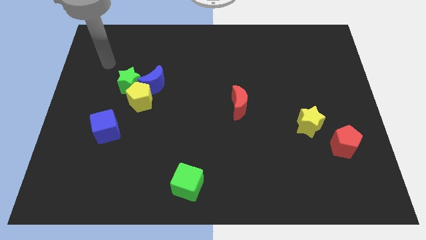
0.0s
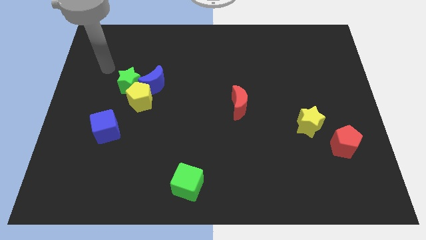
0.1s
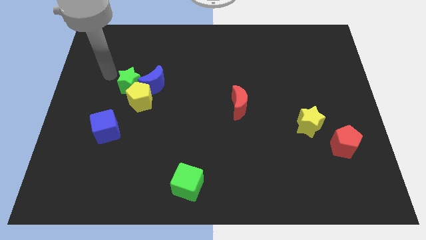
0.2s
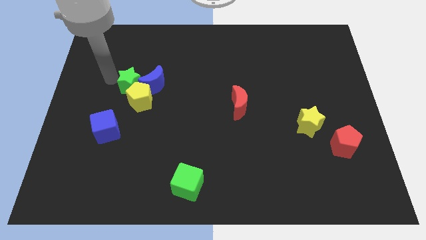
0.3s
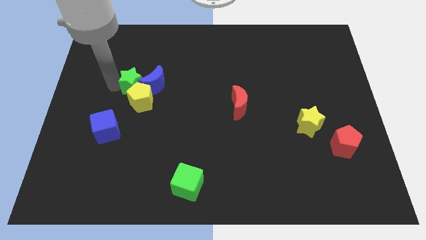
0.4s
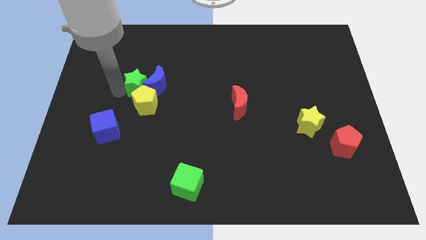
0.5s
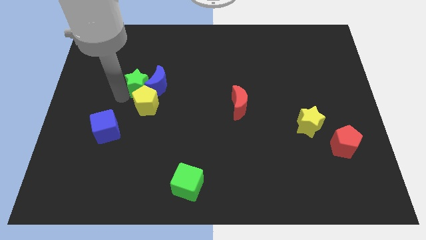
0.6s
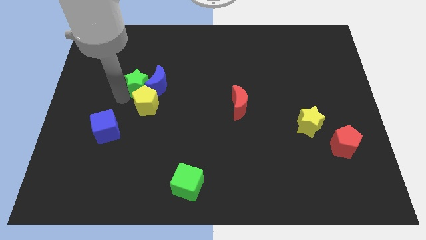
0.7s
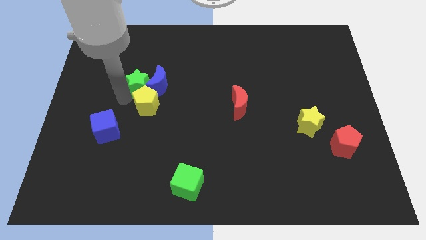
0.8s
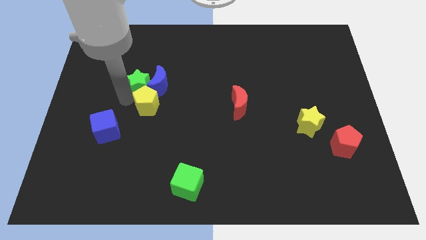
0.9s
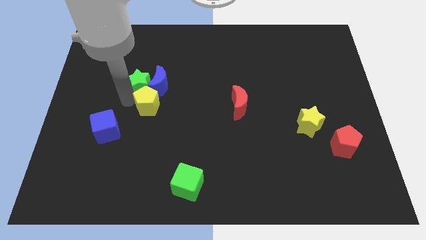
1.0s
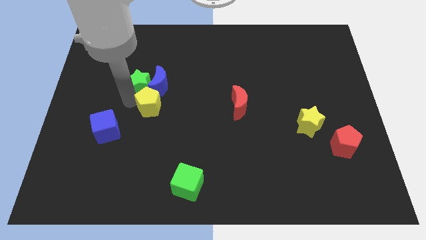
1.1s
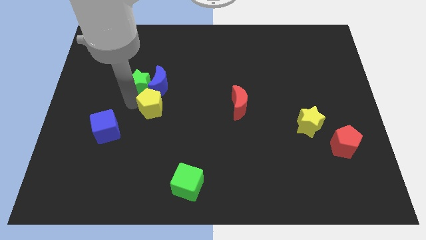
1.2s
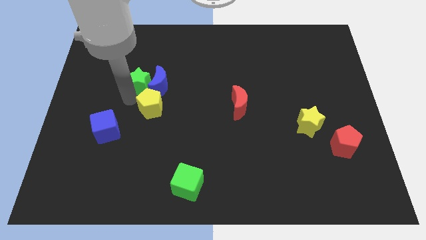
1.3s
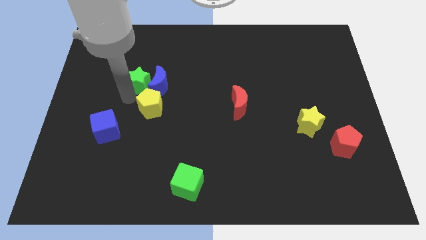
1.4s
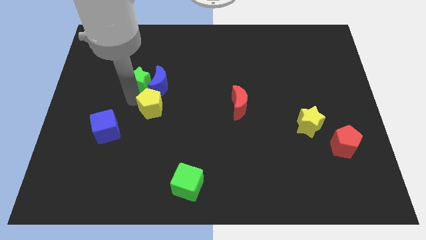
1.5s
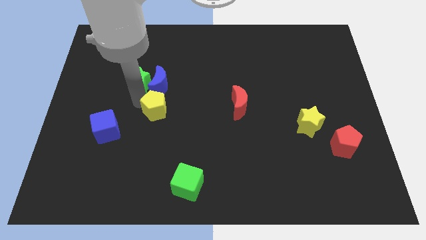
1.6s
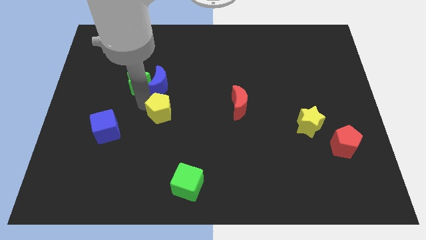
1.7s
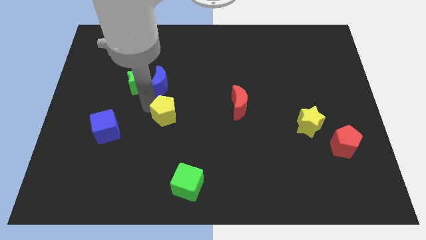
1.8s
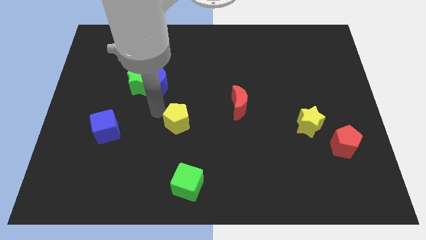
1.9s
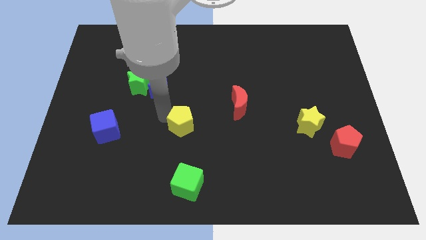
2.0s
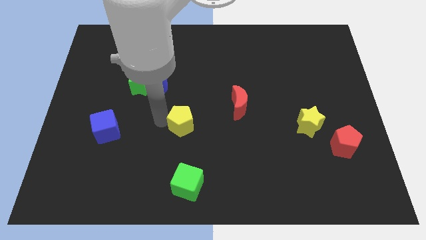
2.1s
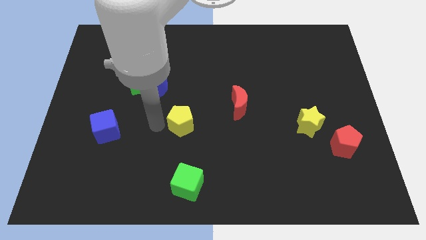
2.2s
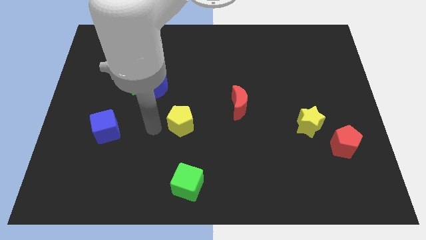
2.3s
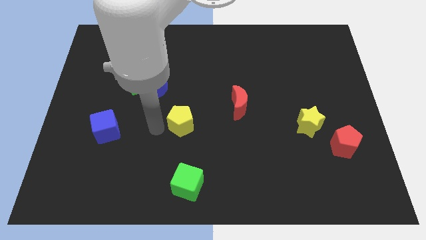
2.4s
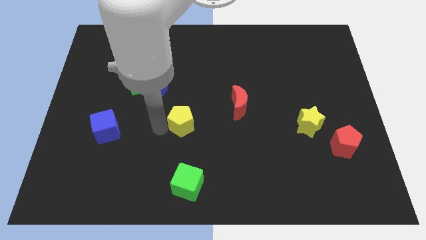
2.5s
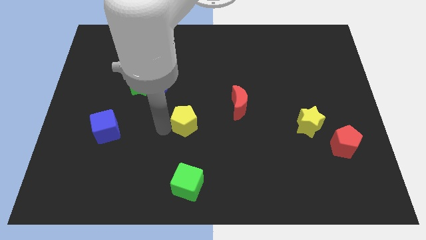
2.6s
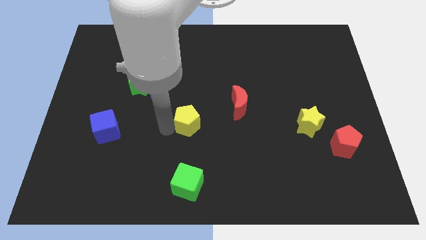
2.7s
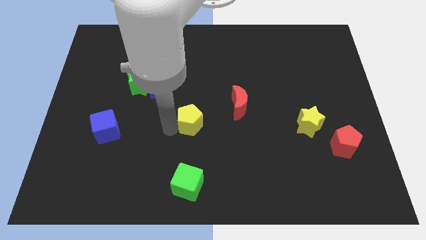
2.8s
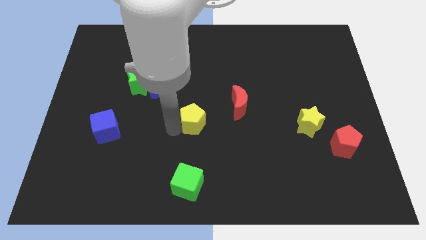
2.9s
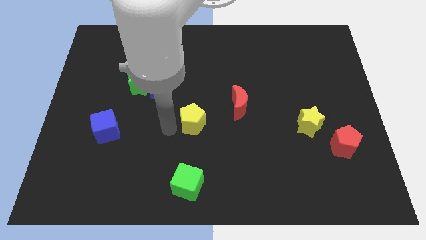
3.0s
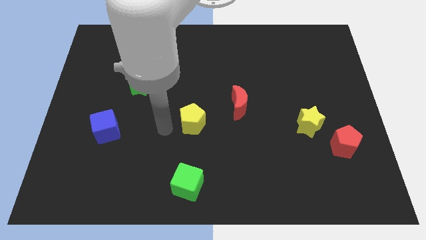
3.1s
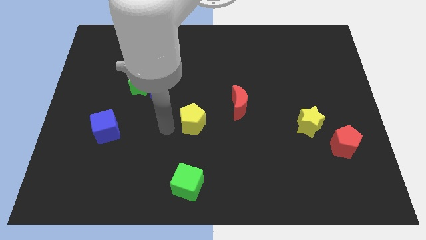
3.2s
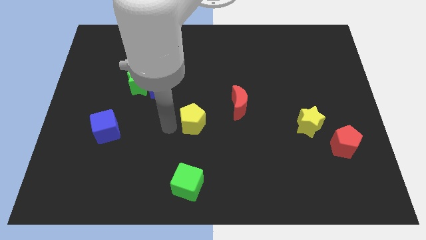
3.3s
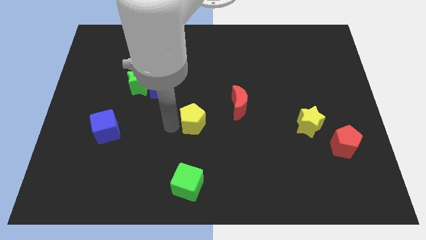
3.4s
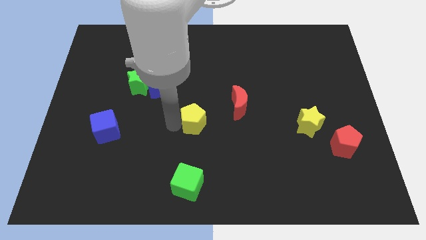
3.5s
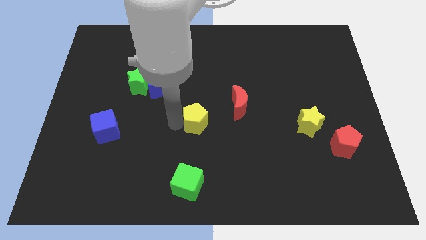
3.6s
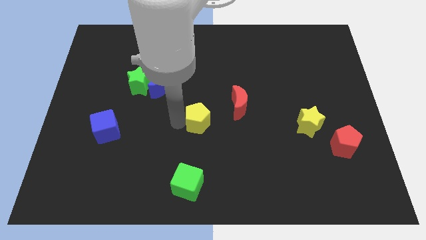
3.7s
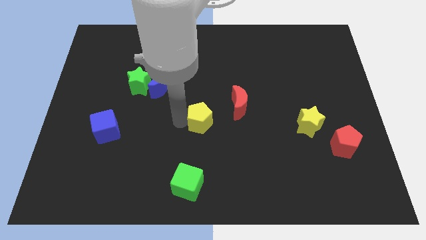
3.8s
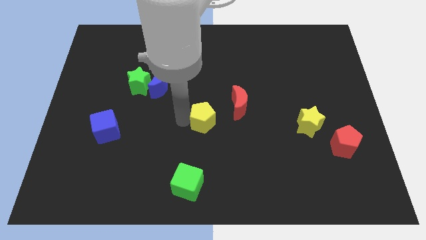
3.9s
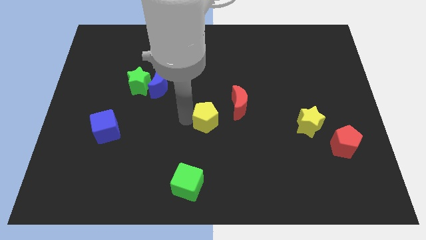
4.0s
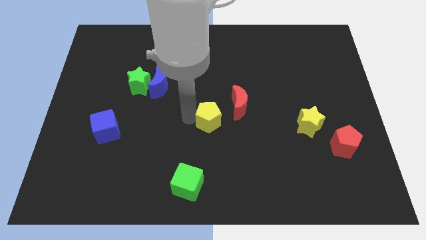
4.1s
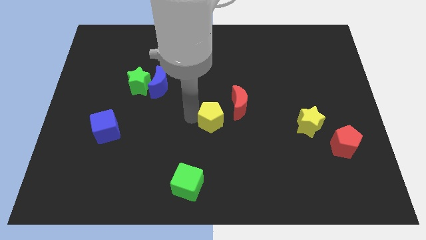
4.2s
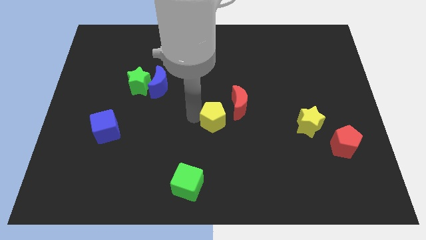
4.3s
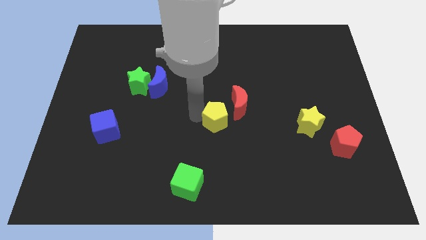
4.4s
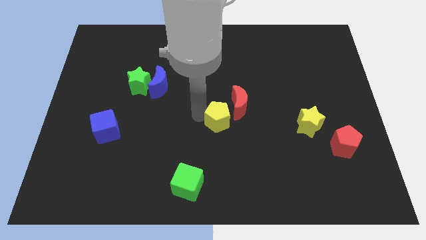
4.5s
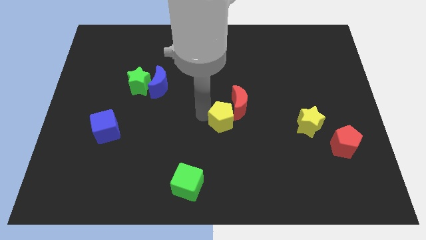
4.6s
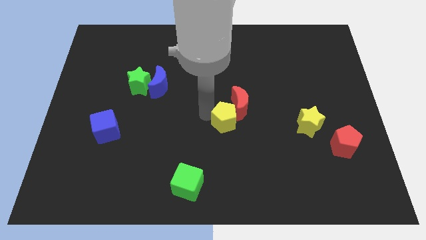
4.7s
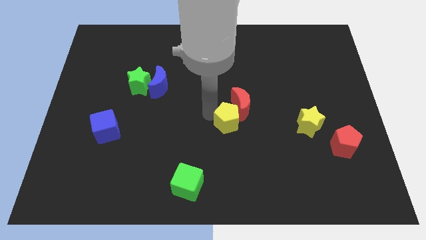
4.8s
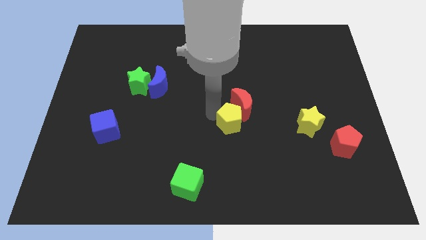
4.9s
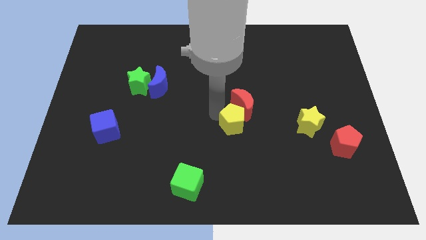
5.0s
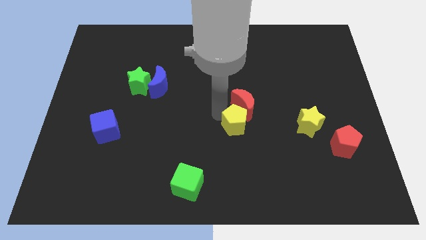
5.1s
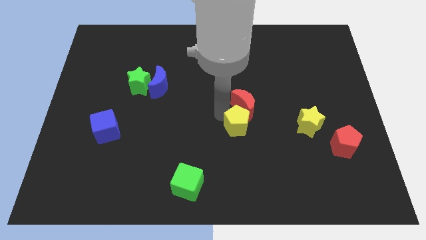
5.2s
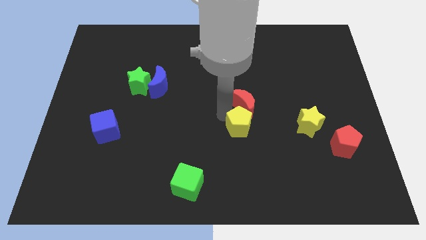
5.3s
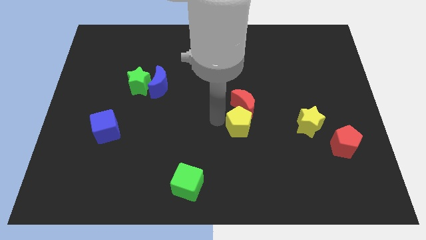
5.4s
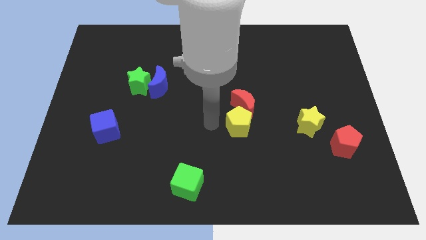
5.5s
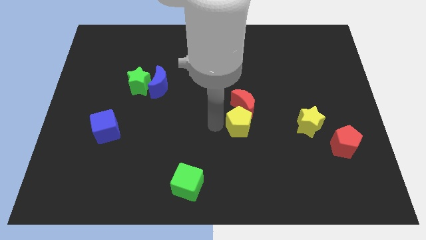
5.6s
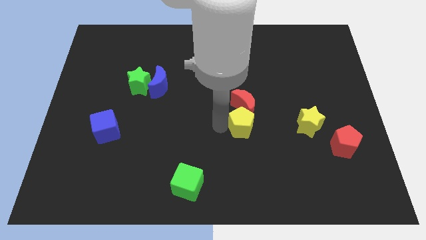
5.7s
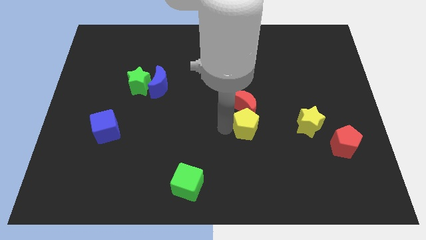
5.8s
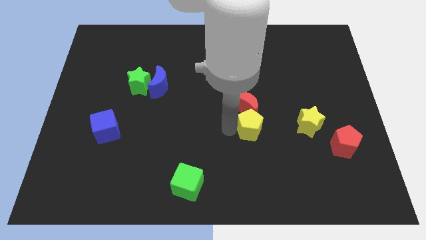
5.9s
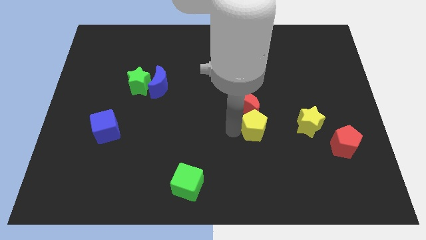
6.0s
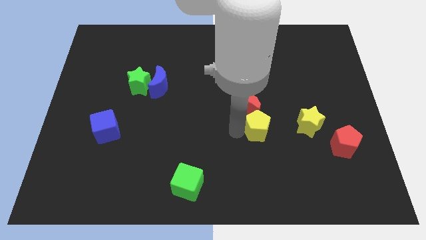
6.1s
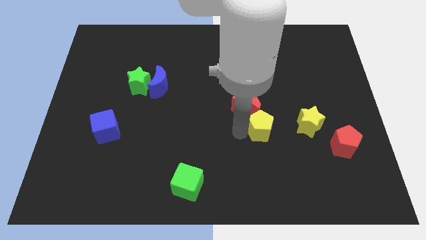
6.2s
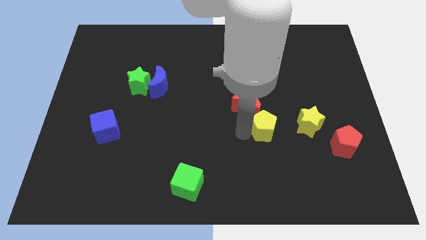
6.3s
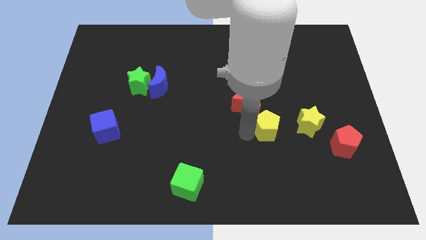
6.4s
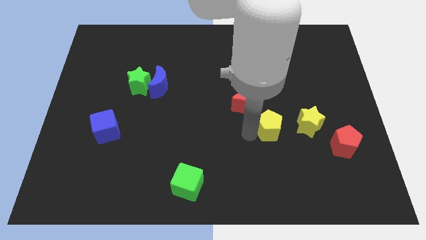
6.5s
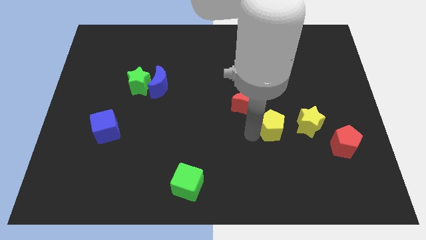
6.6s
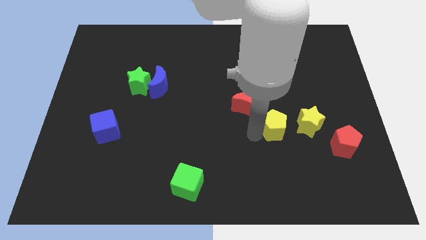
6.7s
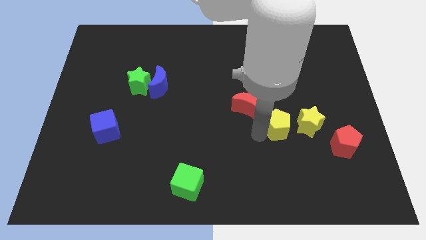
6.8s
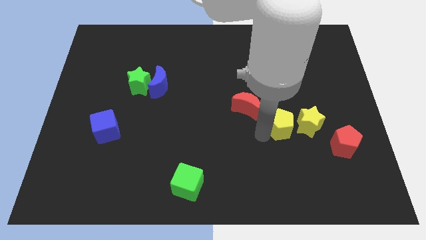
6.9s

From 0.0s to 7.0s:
put the yellow pentagon towards the yellow star

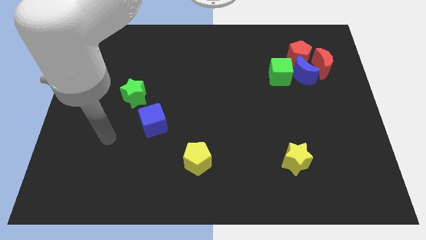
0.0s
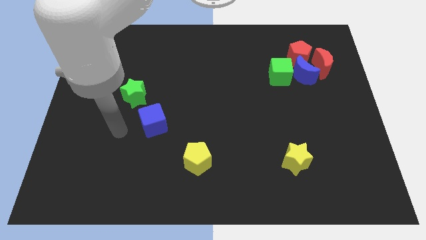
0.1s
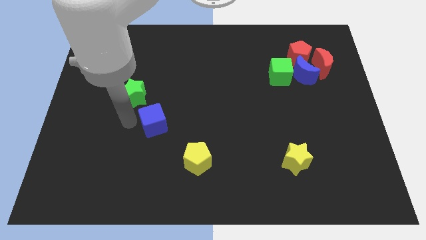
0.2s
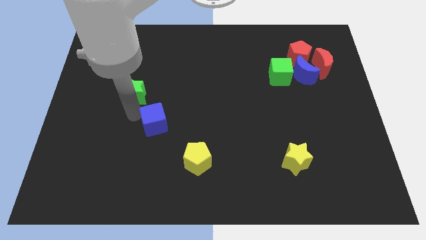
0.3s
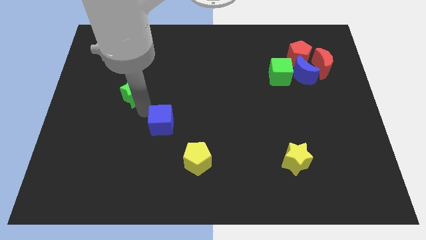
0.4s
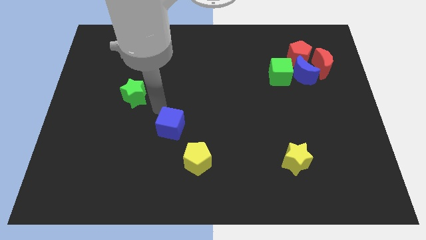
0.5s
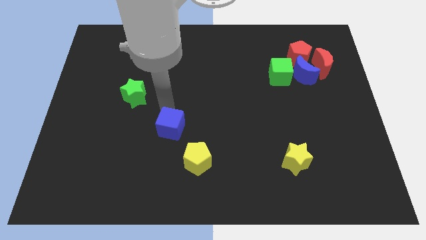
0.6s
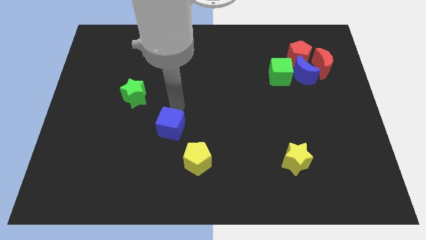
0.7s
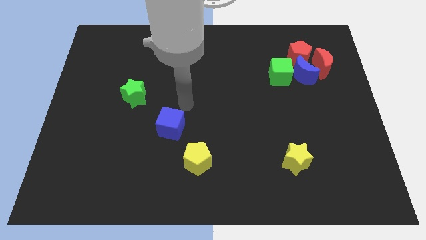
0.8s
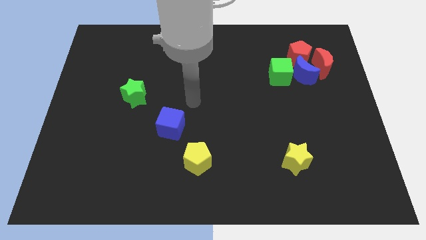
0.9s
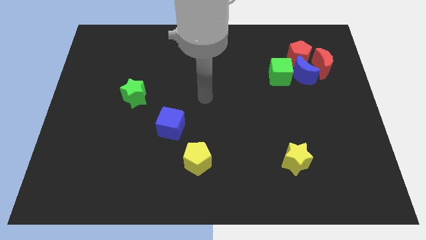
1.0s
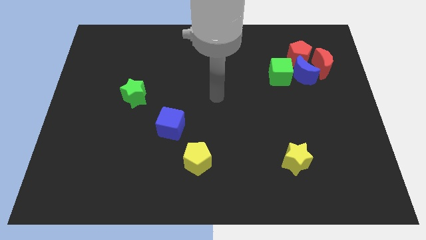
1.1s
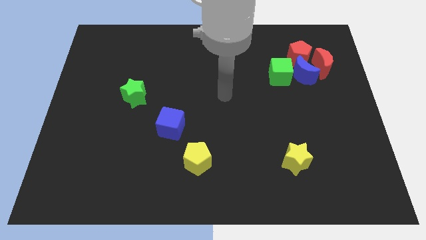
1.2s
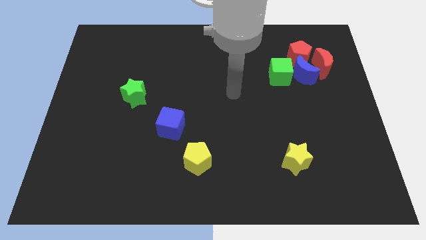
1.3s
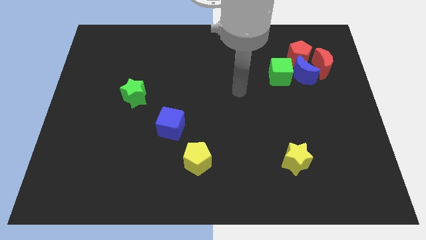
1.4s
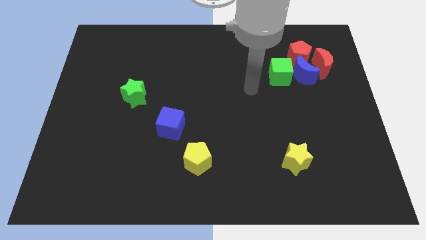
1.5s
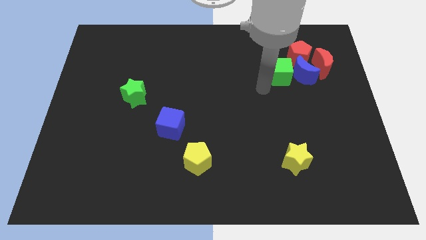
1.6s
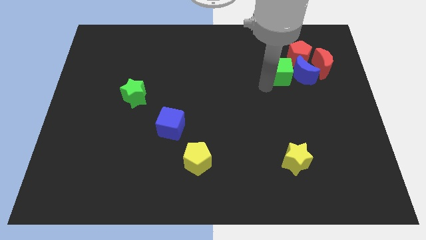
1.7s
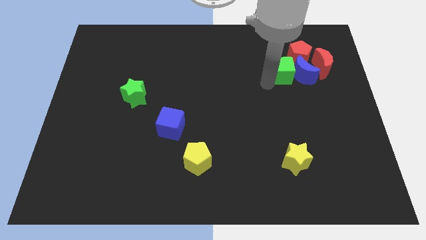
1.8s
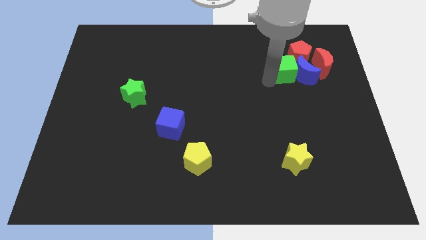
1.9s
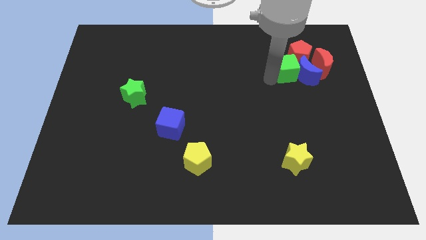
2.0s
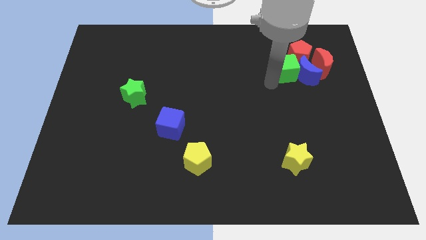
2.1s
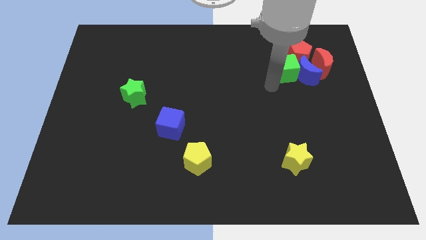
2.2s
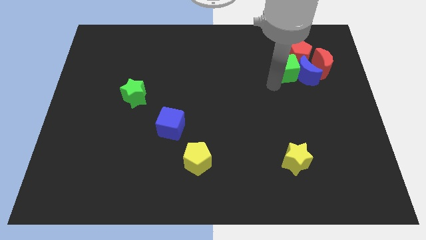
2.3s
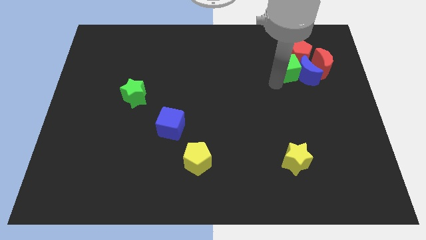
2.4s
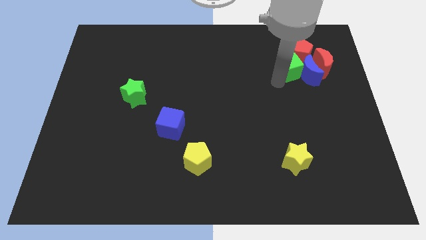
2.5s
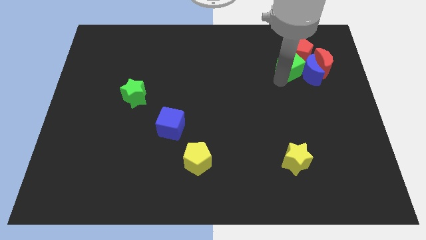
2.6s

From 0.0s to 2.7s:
push the green cube next to the red pentagon
